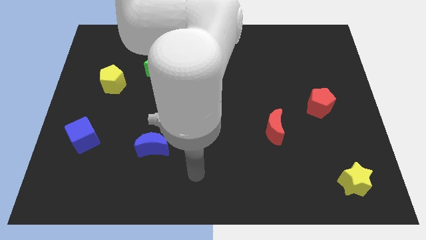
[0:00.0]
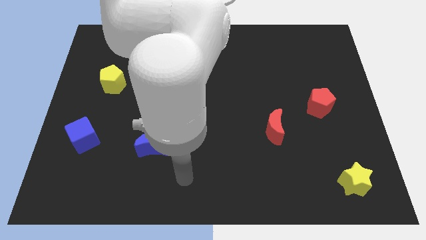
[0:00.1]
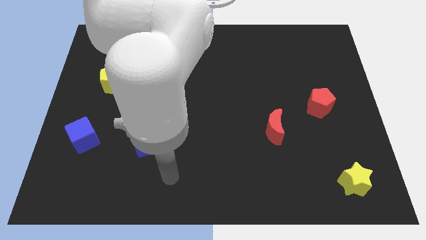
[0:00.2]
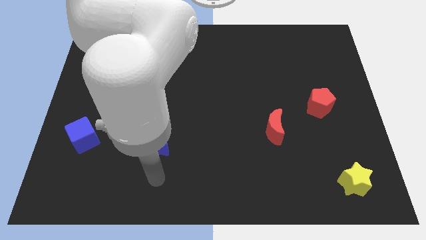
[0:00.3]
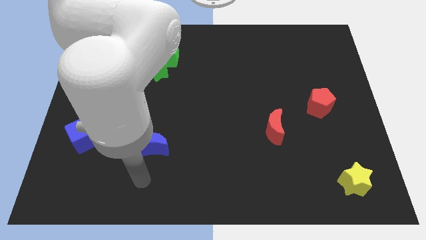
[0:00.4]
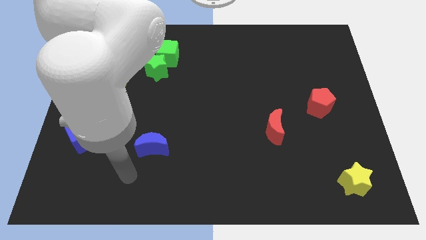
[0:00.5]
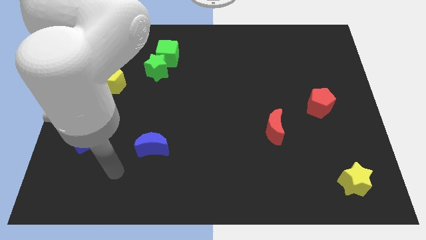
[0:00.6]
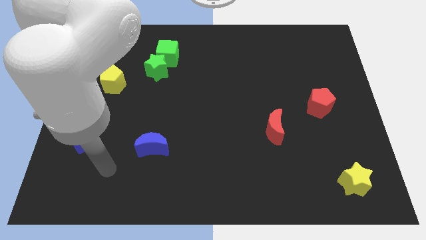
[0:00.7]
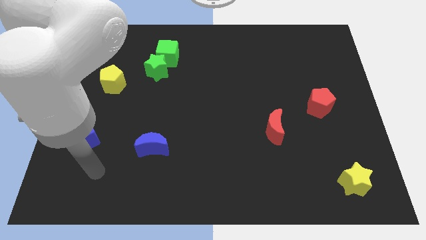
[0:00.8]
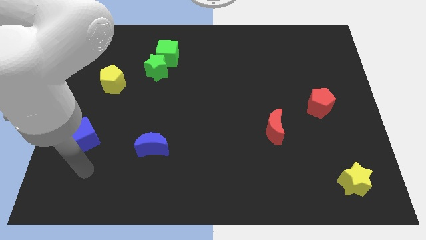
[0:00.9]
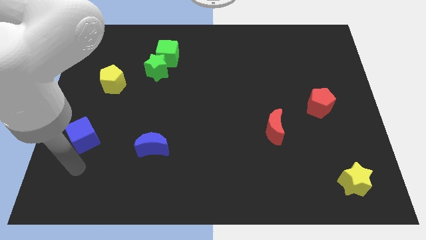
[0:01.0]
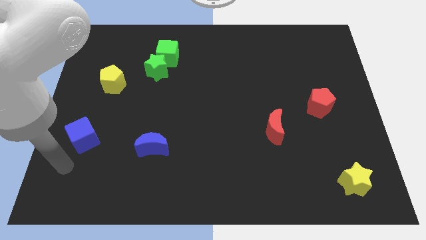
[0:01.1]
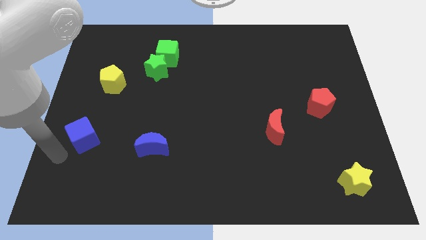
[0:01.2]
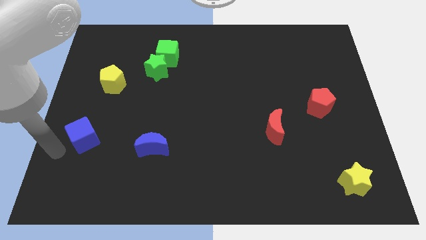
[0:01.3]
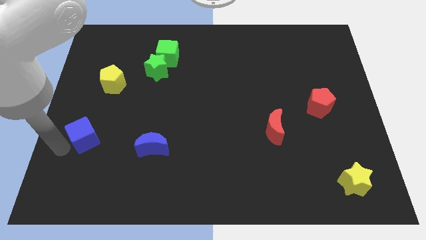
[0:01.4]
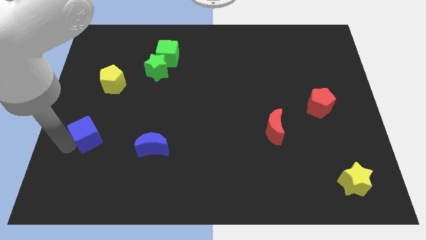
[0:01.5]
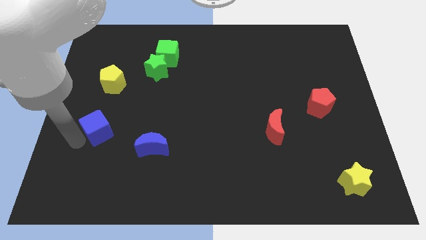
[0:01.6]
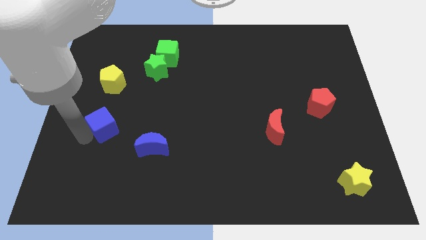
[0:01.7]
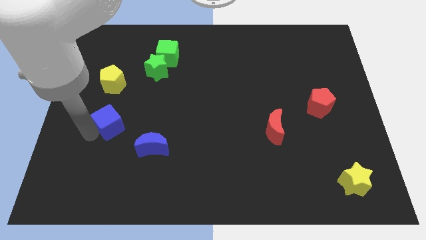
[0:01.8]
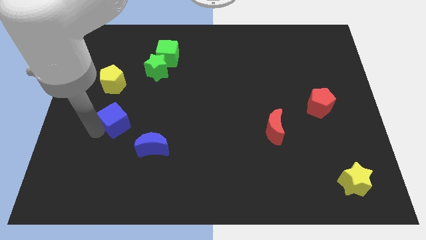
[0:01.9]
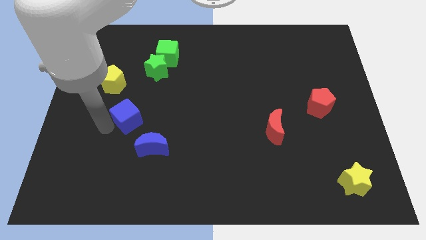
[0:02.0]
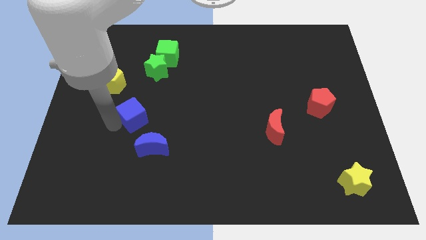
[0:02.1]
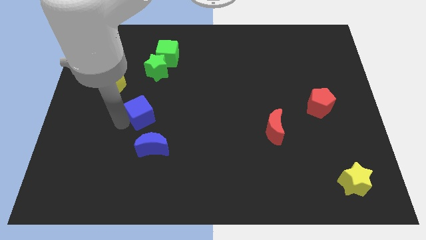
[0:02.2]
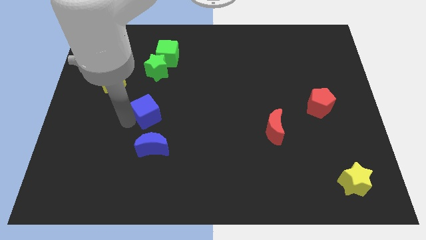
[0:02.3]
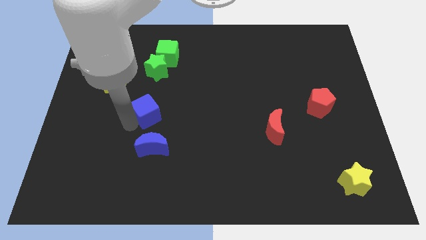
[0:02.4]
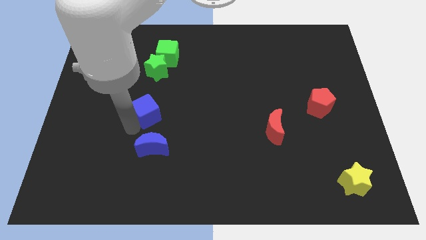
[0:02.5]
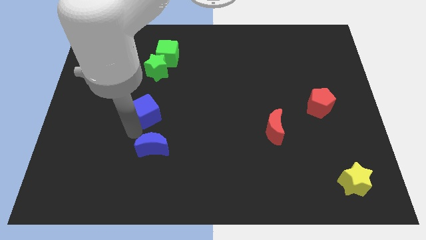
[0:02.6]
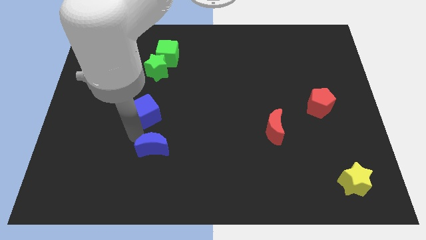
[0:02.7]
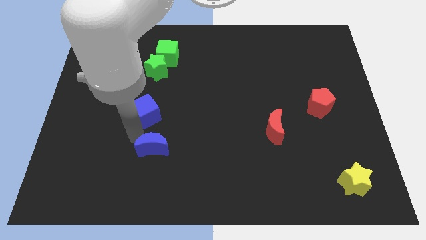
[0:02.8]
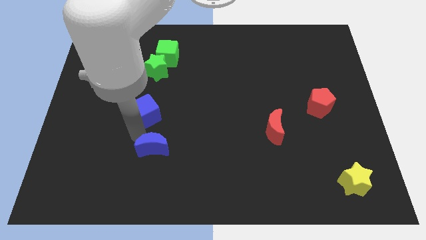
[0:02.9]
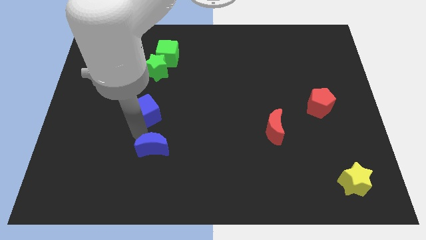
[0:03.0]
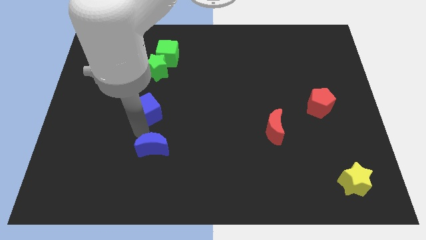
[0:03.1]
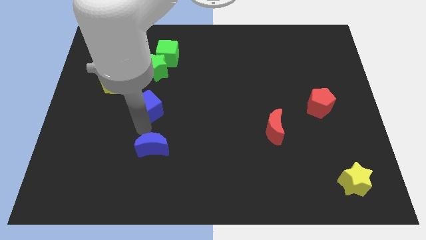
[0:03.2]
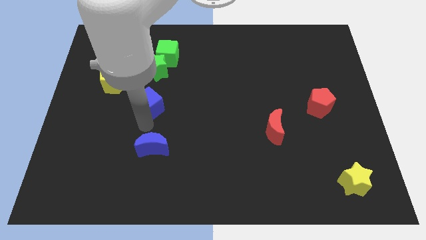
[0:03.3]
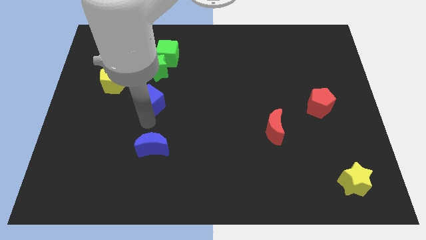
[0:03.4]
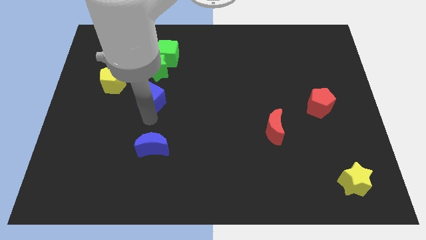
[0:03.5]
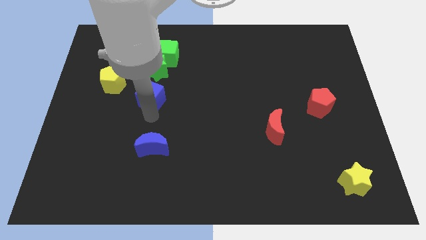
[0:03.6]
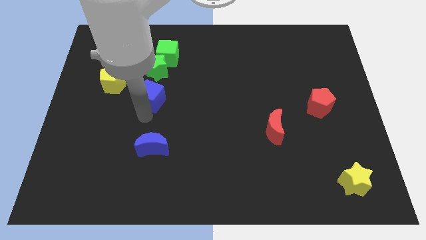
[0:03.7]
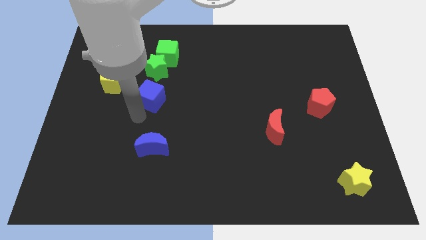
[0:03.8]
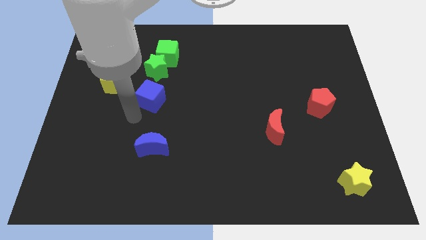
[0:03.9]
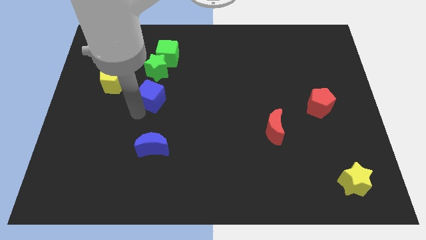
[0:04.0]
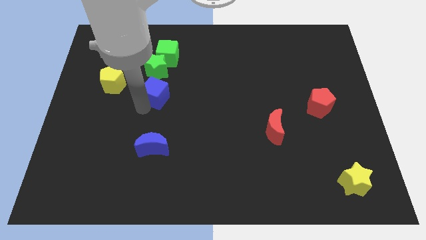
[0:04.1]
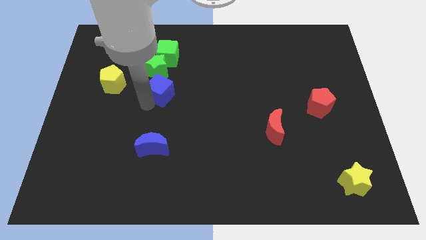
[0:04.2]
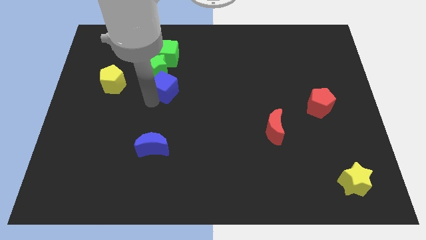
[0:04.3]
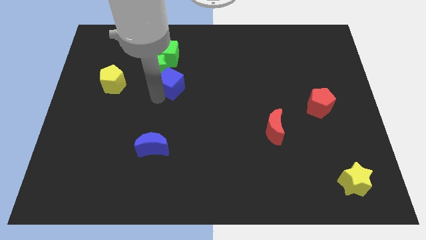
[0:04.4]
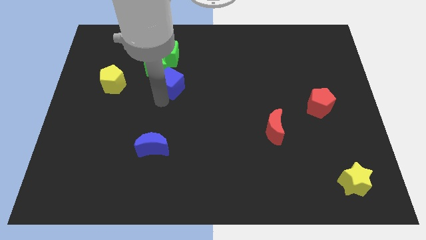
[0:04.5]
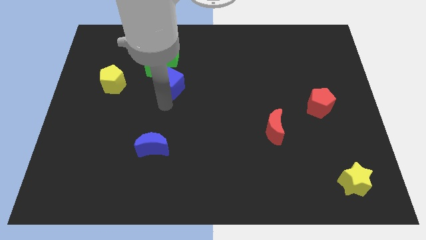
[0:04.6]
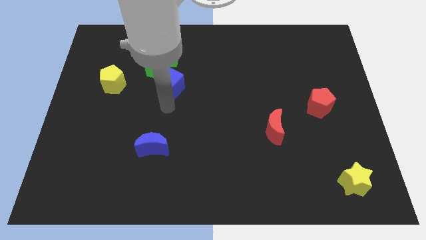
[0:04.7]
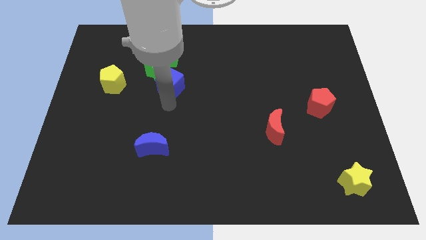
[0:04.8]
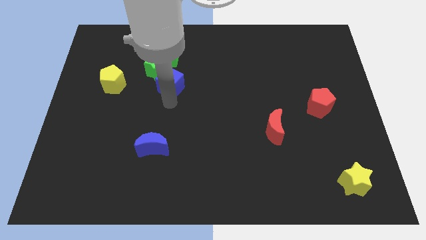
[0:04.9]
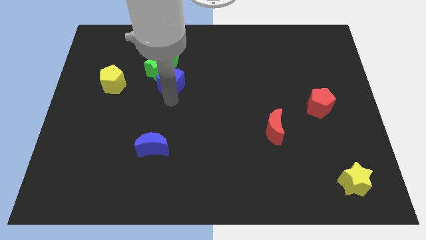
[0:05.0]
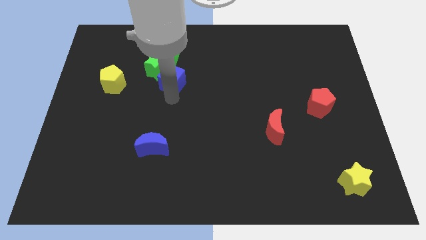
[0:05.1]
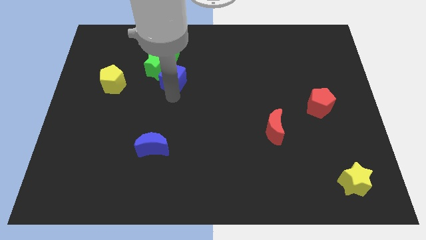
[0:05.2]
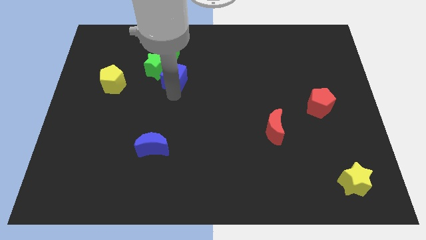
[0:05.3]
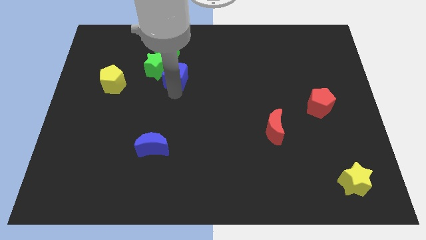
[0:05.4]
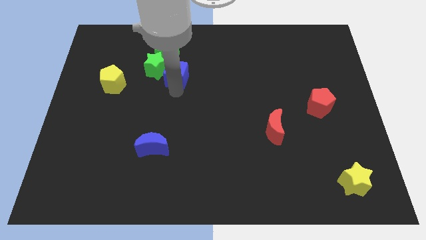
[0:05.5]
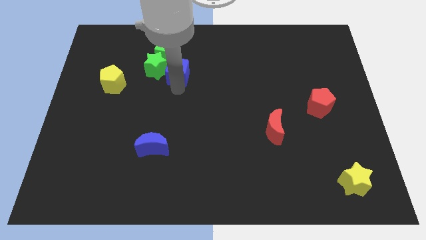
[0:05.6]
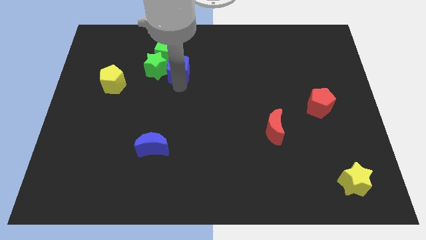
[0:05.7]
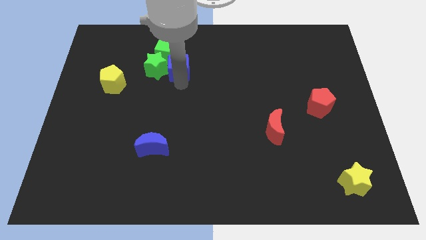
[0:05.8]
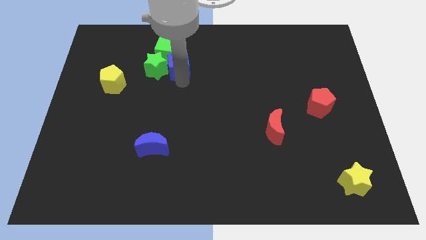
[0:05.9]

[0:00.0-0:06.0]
move the blue cube close to the green cube

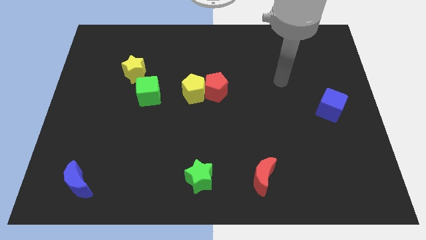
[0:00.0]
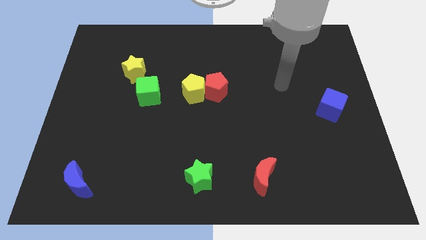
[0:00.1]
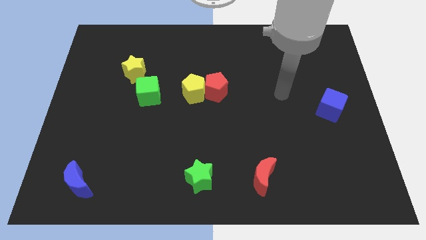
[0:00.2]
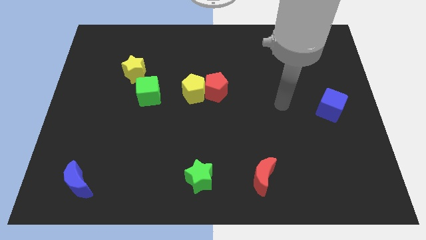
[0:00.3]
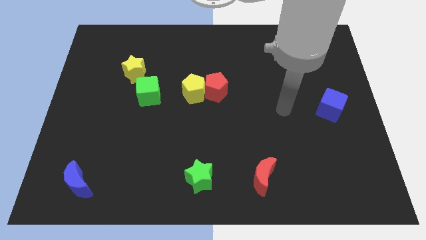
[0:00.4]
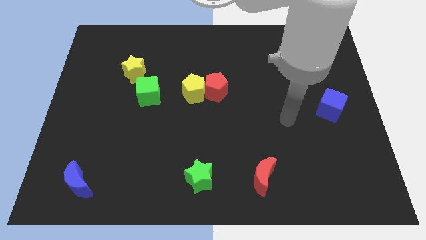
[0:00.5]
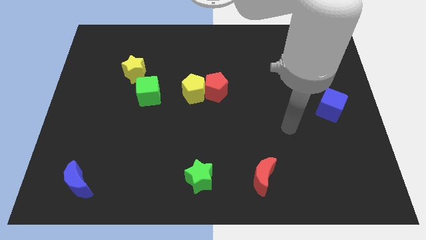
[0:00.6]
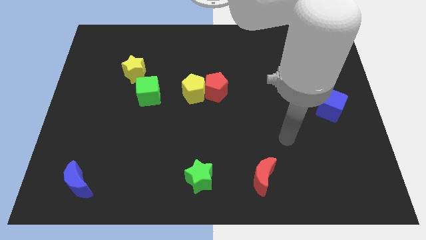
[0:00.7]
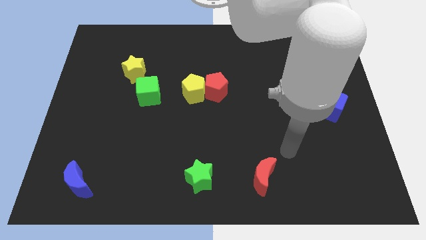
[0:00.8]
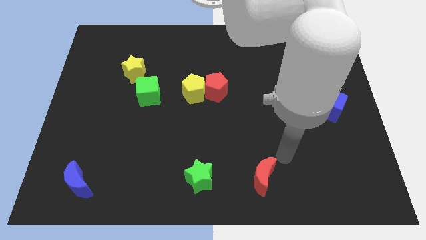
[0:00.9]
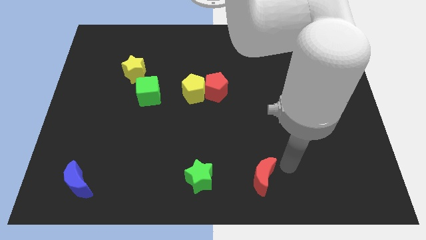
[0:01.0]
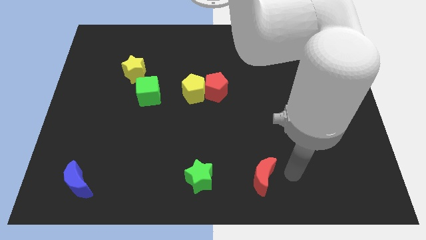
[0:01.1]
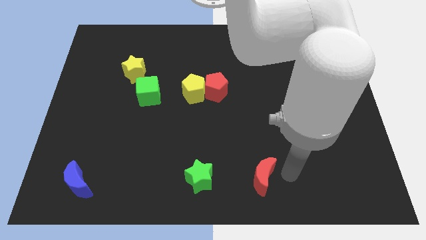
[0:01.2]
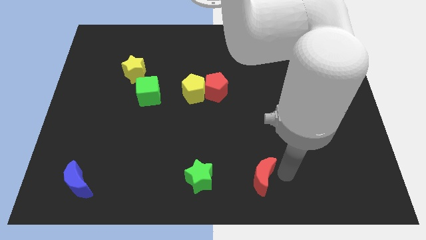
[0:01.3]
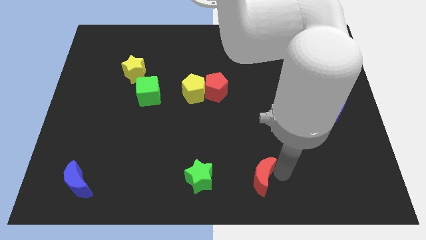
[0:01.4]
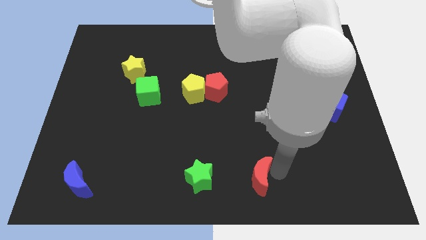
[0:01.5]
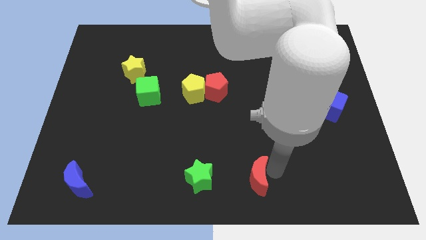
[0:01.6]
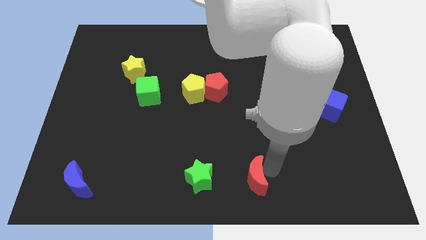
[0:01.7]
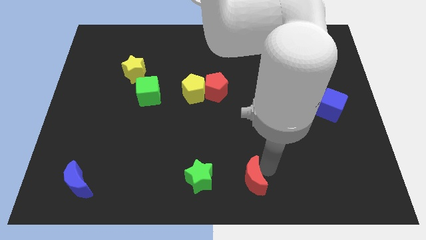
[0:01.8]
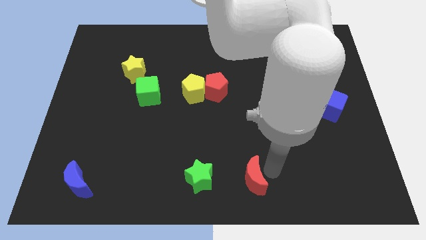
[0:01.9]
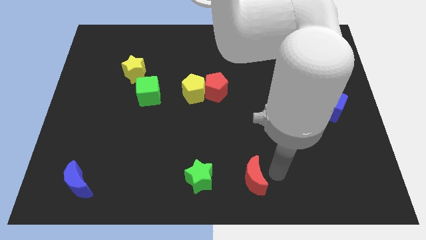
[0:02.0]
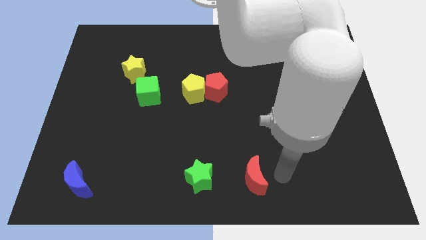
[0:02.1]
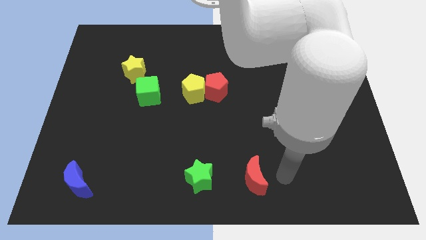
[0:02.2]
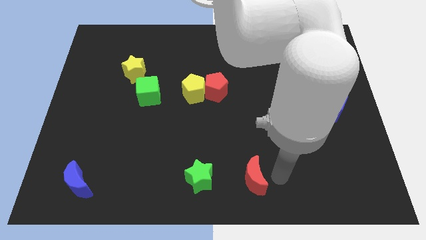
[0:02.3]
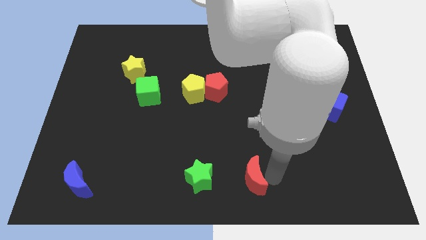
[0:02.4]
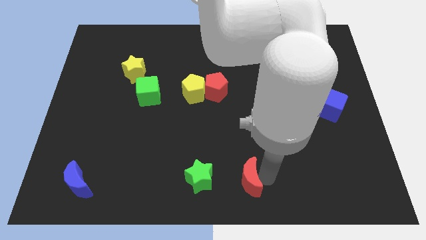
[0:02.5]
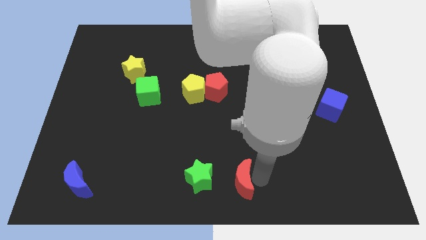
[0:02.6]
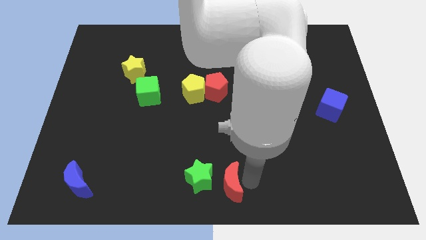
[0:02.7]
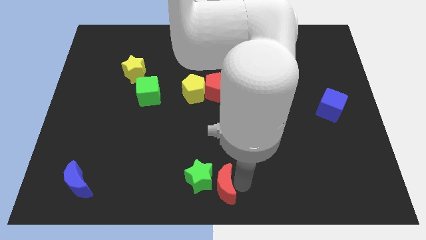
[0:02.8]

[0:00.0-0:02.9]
move the red moon next to the green star
